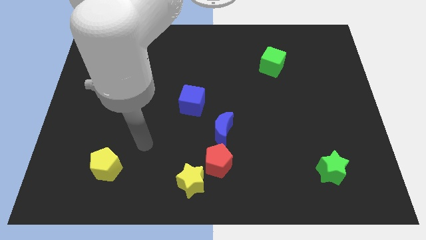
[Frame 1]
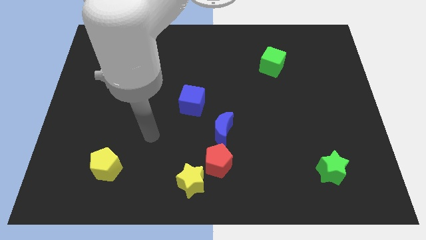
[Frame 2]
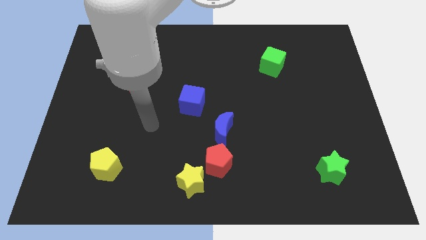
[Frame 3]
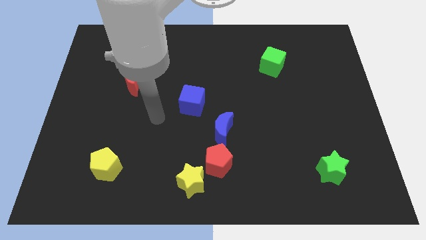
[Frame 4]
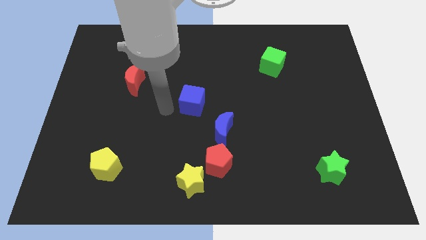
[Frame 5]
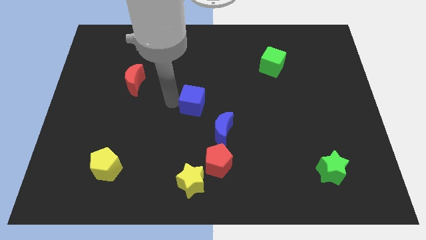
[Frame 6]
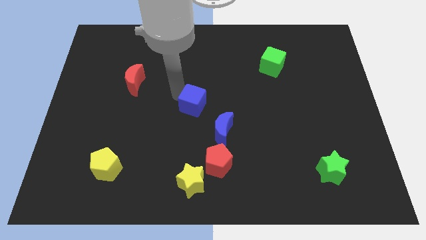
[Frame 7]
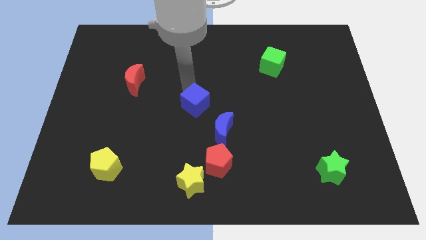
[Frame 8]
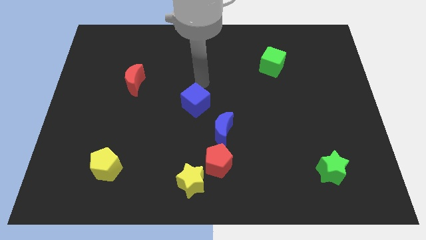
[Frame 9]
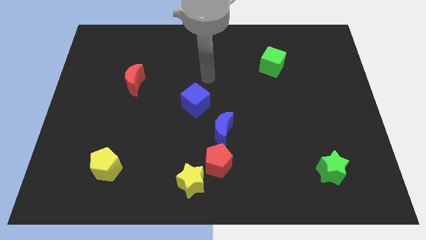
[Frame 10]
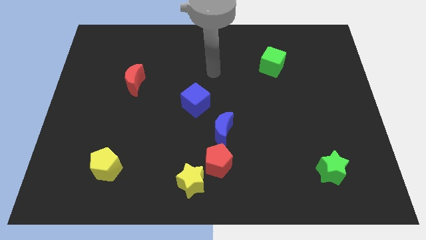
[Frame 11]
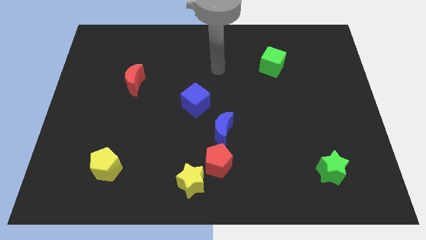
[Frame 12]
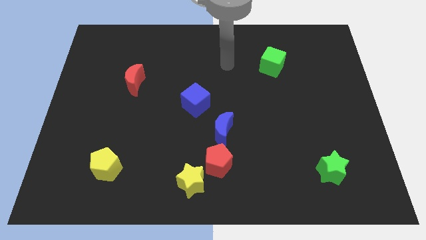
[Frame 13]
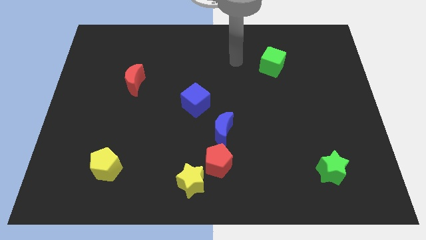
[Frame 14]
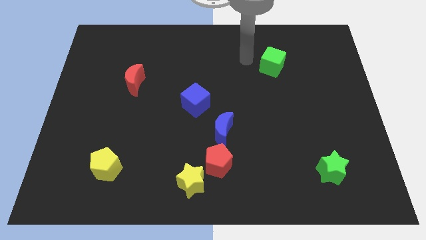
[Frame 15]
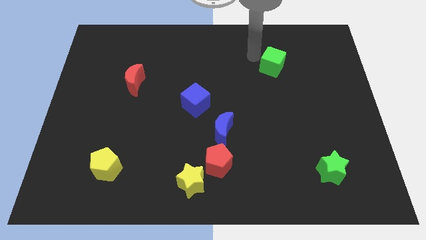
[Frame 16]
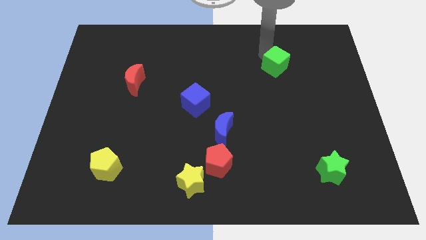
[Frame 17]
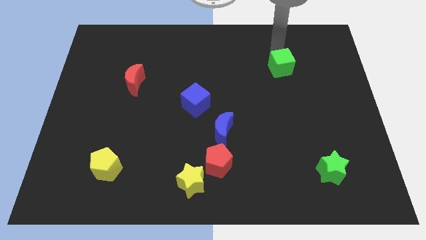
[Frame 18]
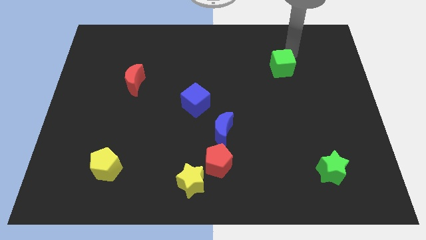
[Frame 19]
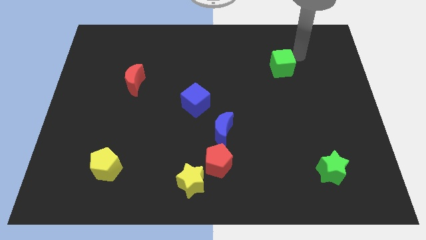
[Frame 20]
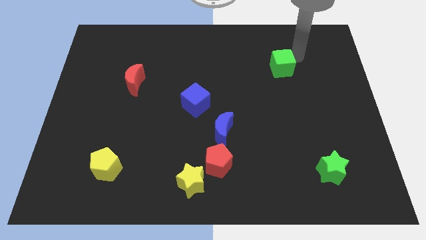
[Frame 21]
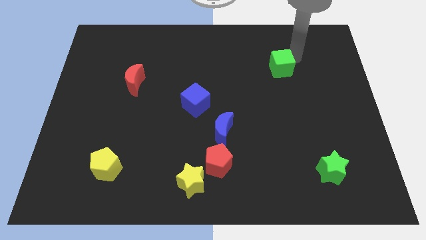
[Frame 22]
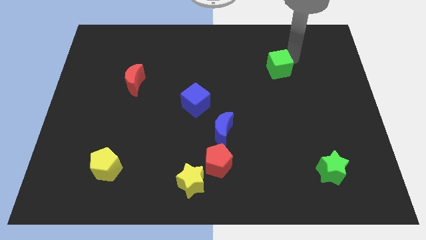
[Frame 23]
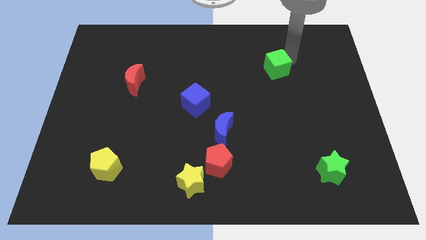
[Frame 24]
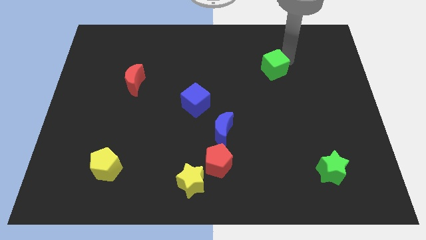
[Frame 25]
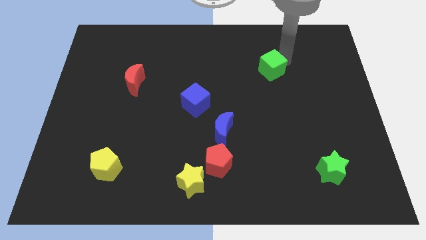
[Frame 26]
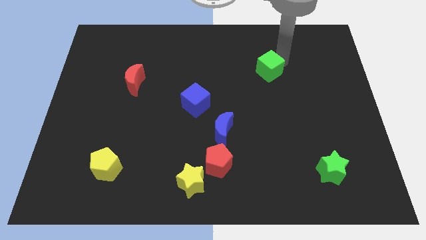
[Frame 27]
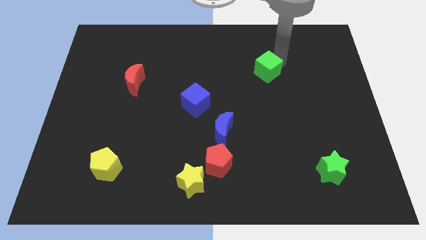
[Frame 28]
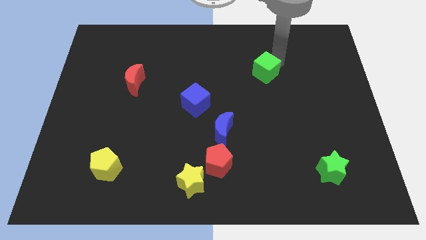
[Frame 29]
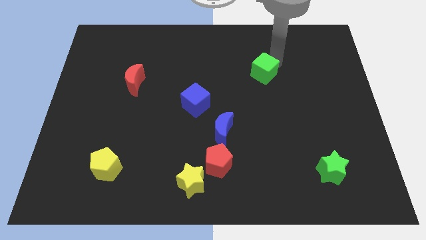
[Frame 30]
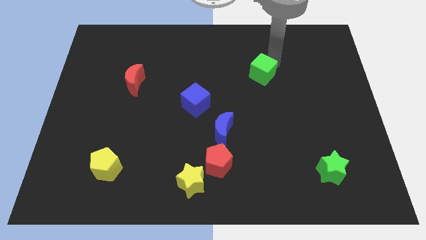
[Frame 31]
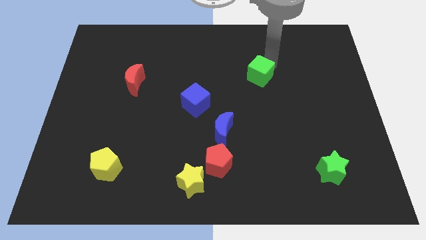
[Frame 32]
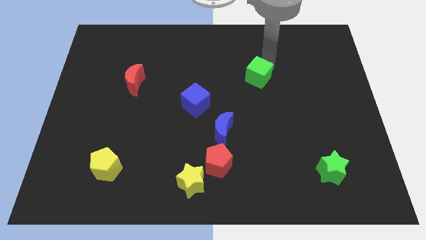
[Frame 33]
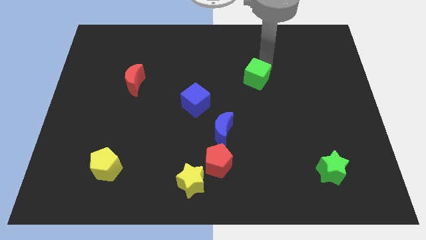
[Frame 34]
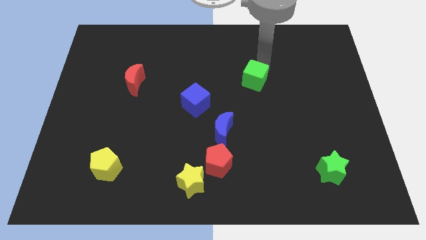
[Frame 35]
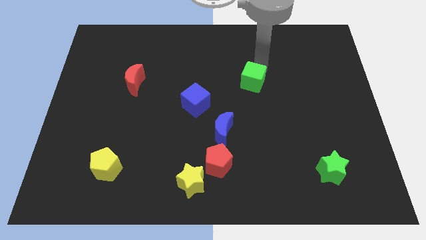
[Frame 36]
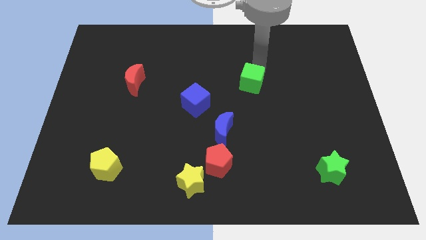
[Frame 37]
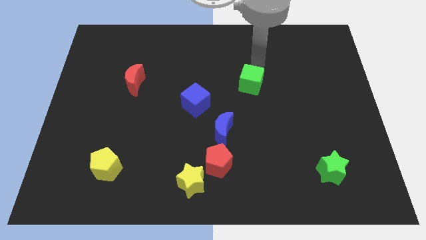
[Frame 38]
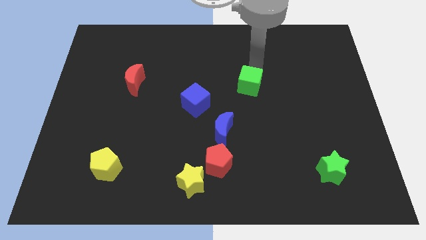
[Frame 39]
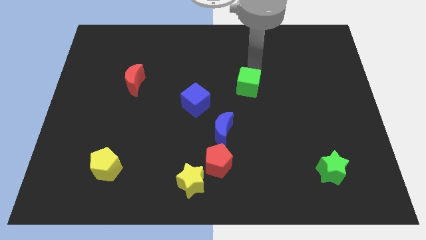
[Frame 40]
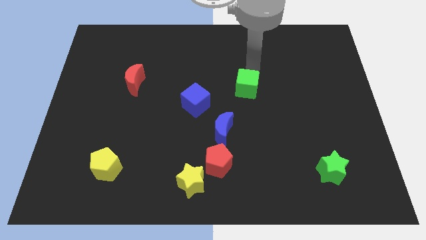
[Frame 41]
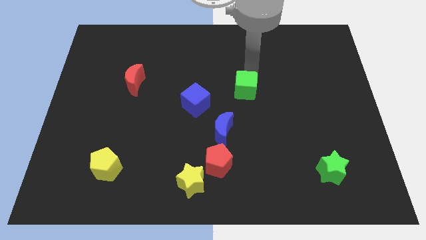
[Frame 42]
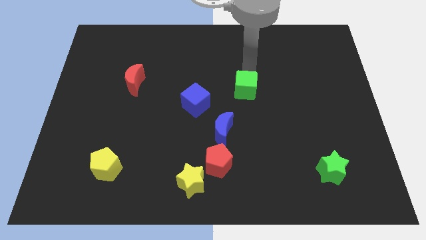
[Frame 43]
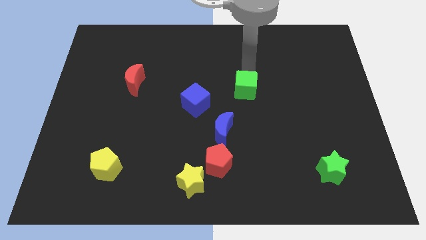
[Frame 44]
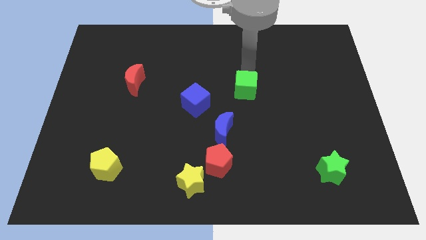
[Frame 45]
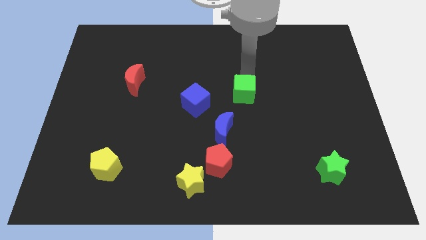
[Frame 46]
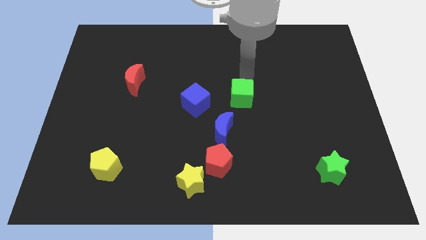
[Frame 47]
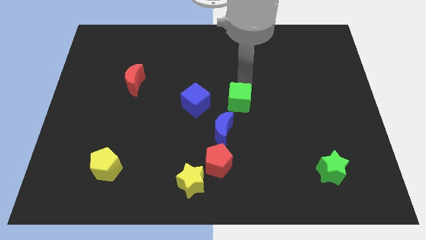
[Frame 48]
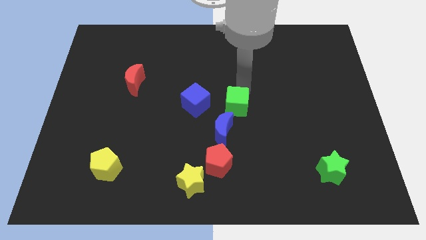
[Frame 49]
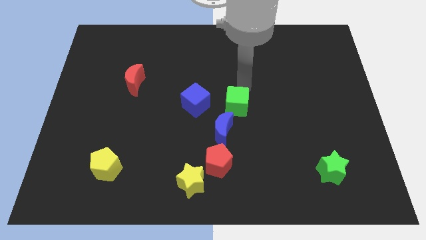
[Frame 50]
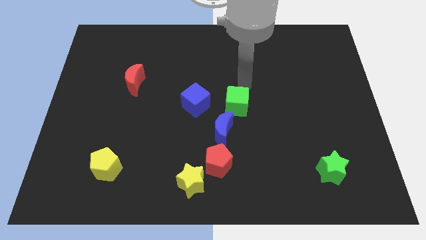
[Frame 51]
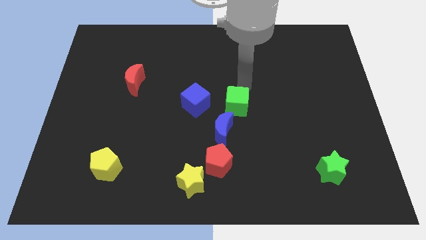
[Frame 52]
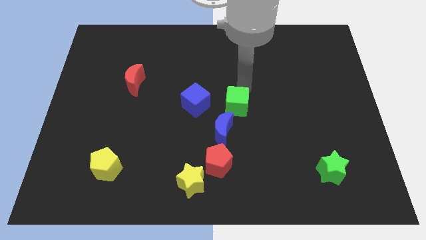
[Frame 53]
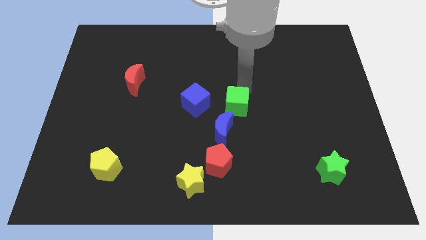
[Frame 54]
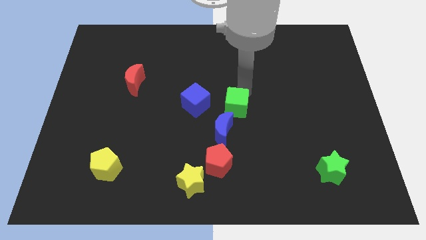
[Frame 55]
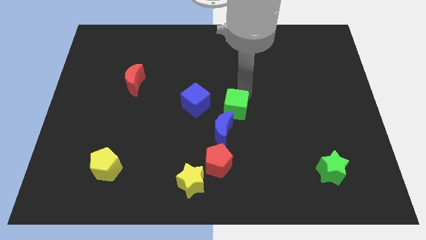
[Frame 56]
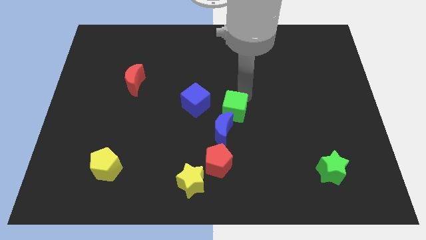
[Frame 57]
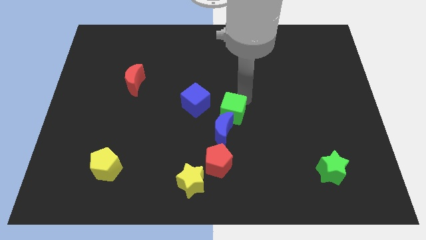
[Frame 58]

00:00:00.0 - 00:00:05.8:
move the green cube close to the blue moon

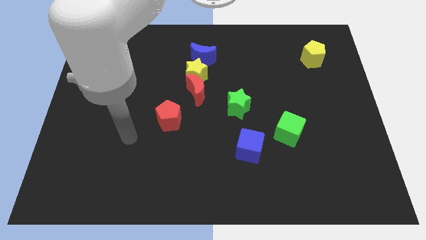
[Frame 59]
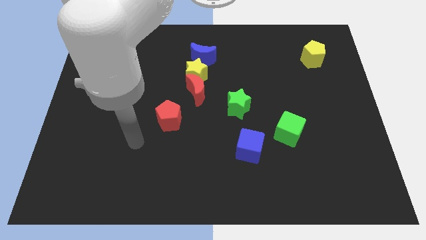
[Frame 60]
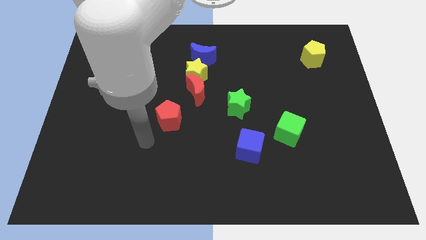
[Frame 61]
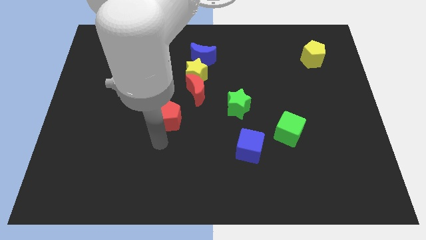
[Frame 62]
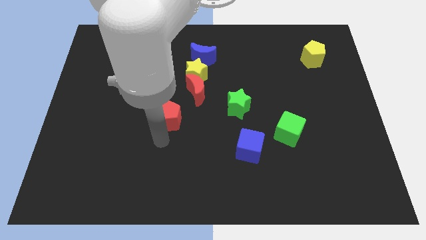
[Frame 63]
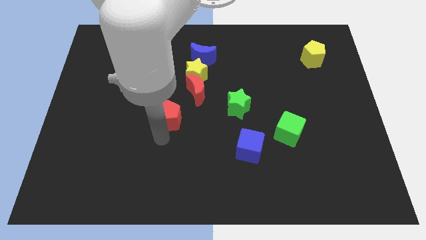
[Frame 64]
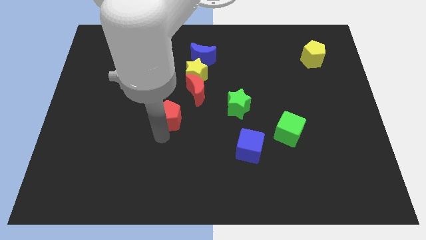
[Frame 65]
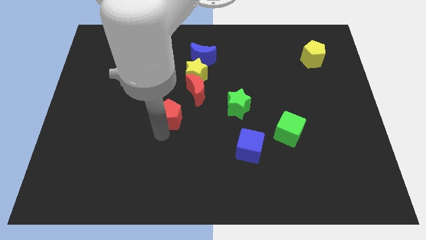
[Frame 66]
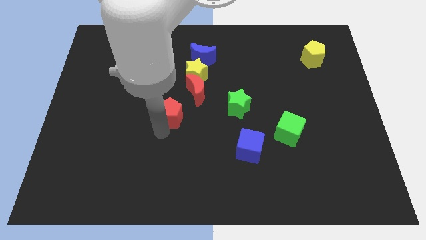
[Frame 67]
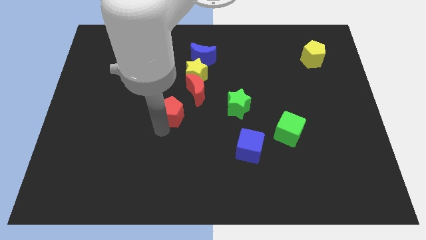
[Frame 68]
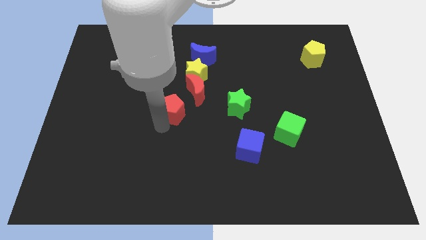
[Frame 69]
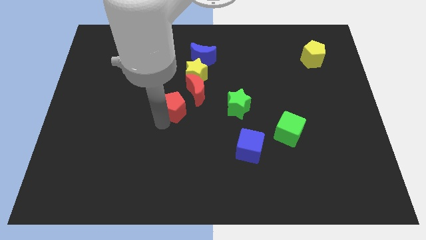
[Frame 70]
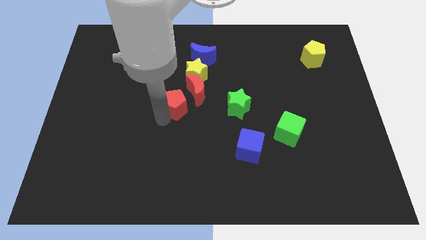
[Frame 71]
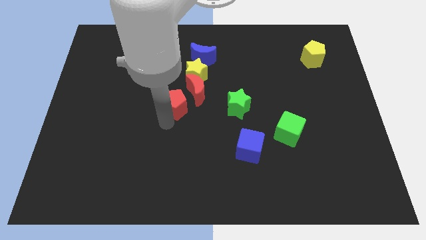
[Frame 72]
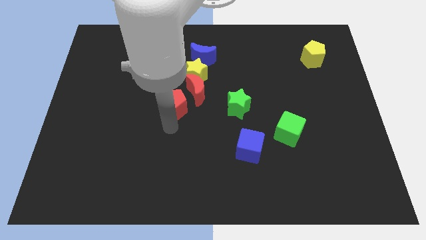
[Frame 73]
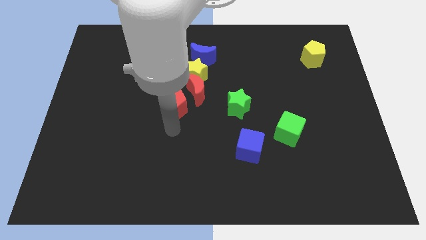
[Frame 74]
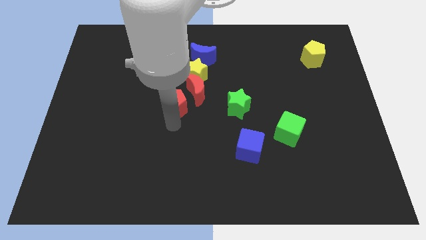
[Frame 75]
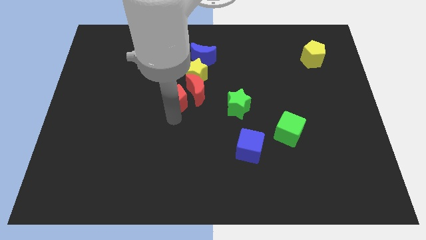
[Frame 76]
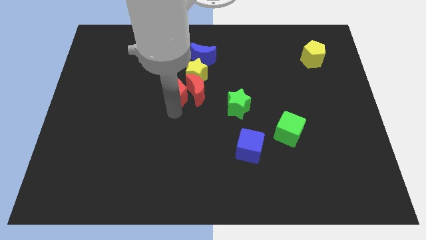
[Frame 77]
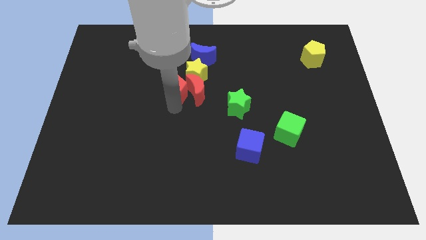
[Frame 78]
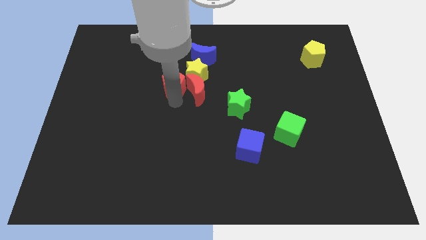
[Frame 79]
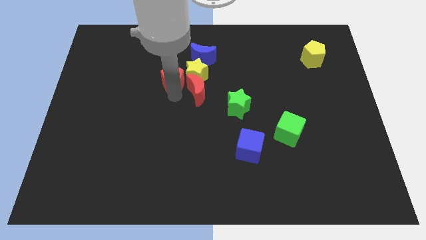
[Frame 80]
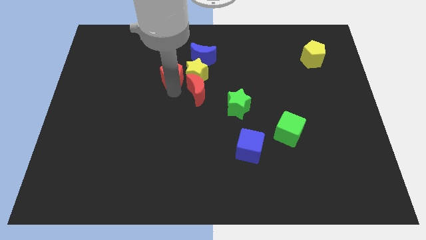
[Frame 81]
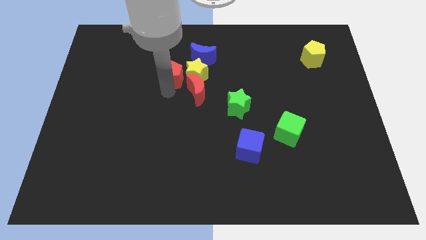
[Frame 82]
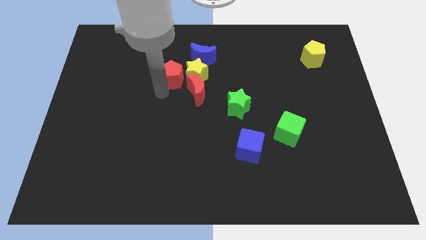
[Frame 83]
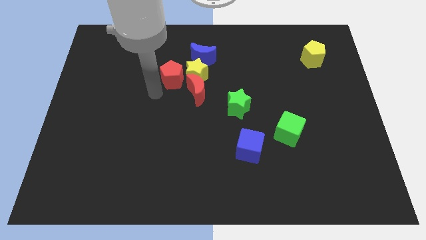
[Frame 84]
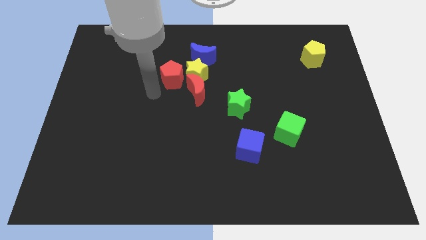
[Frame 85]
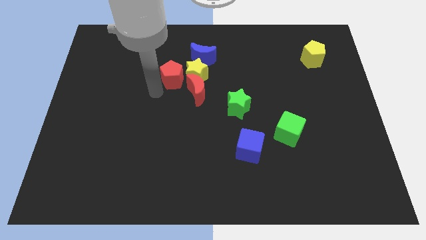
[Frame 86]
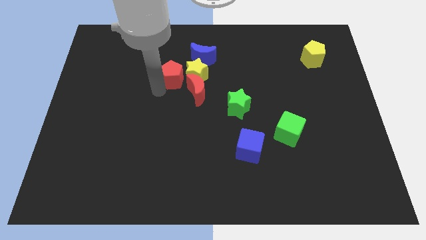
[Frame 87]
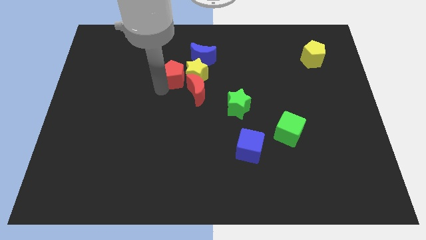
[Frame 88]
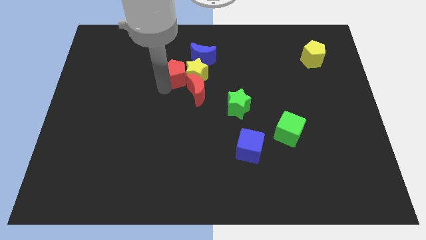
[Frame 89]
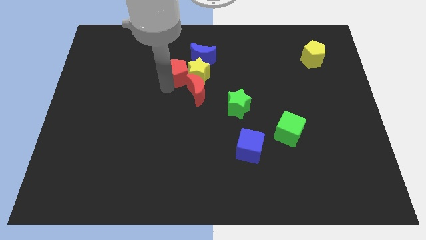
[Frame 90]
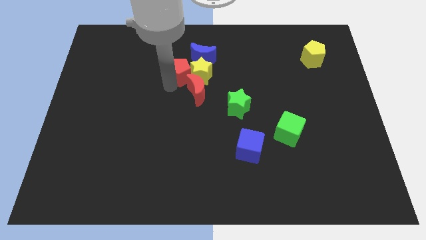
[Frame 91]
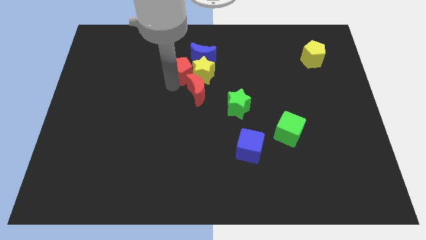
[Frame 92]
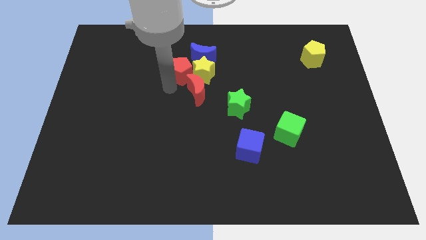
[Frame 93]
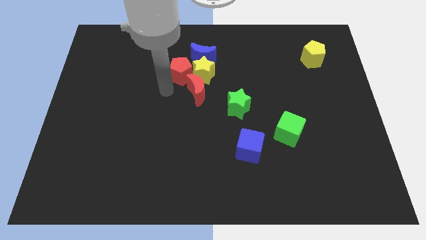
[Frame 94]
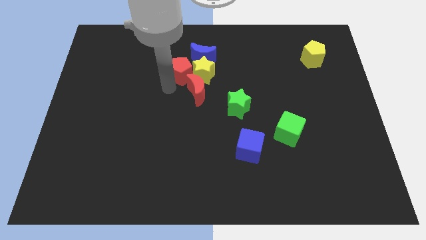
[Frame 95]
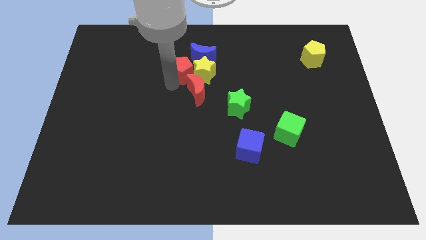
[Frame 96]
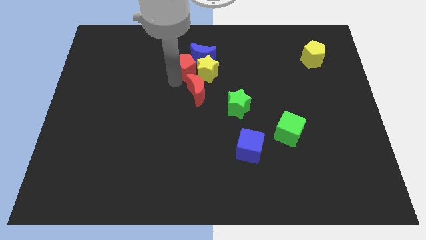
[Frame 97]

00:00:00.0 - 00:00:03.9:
slide the red pentagon to the blue moon
